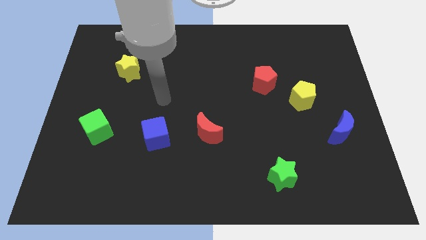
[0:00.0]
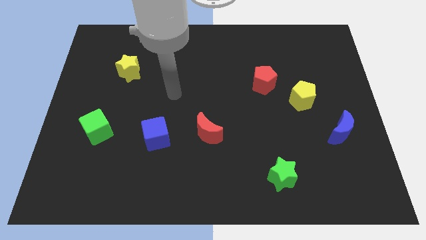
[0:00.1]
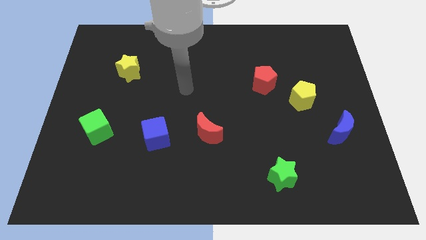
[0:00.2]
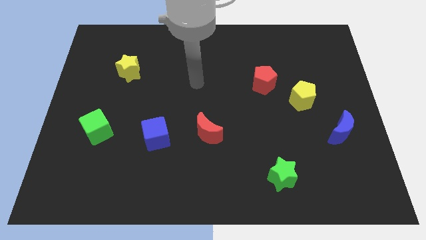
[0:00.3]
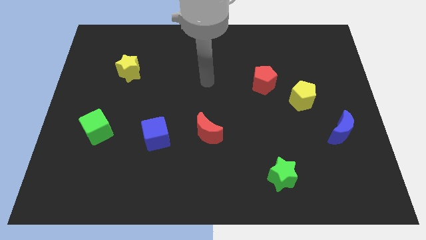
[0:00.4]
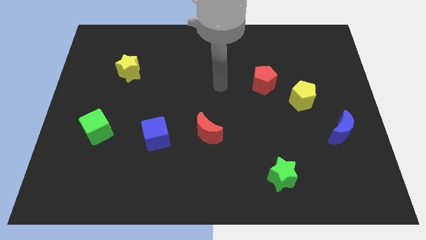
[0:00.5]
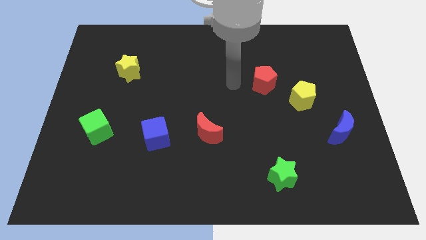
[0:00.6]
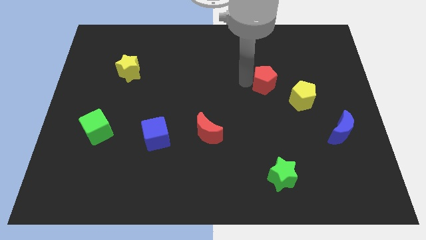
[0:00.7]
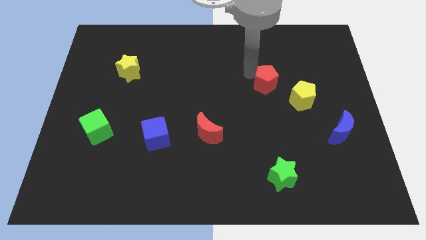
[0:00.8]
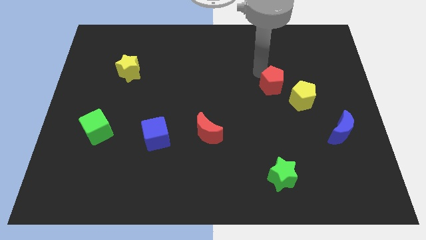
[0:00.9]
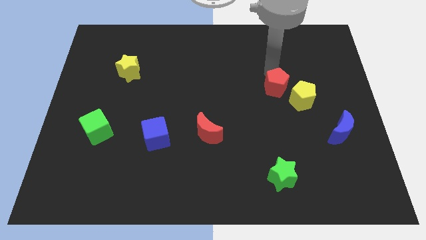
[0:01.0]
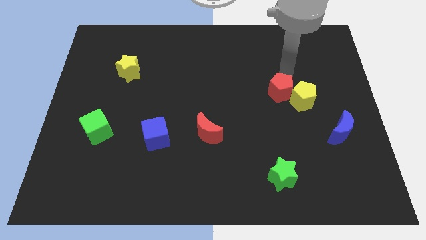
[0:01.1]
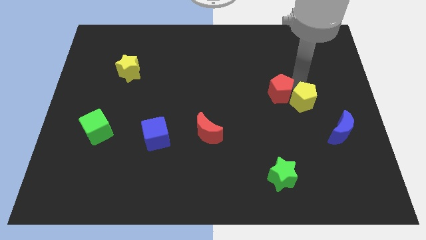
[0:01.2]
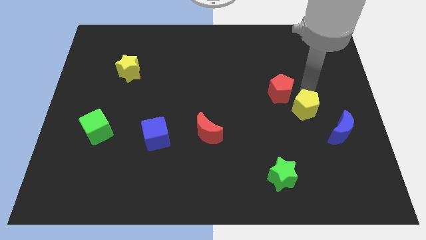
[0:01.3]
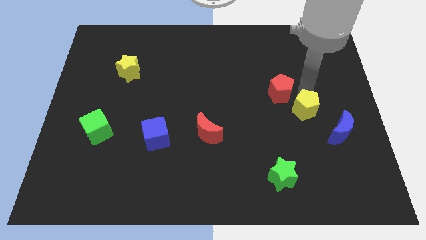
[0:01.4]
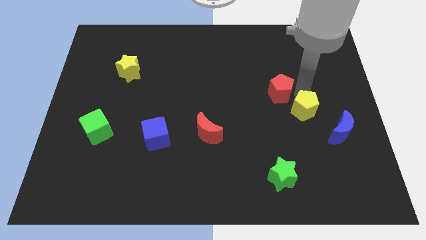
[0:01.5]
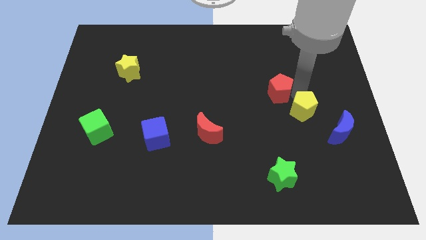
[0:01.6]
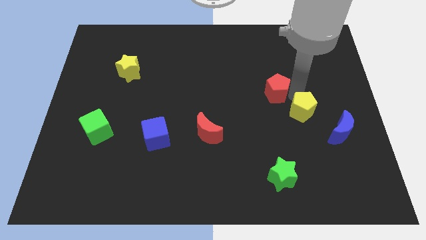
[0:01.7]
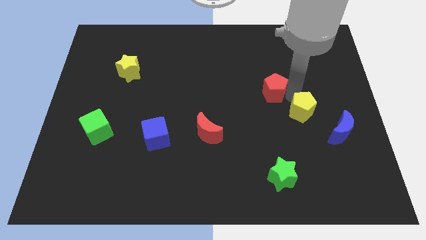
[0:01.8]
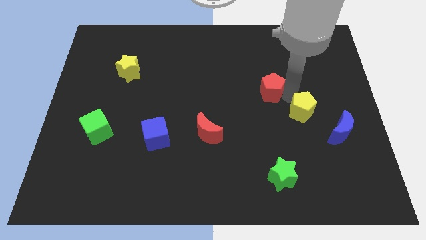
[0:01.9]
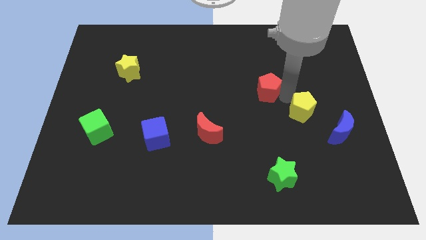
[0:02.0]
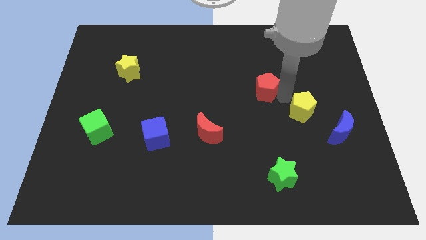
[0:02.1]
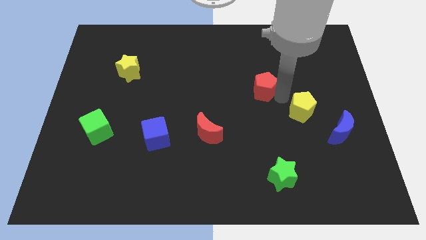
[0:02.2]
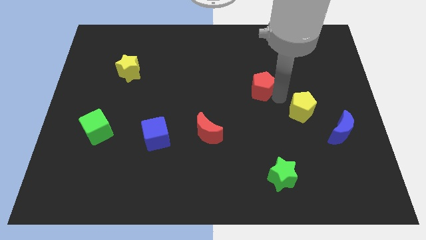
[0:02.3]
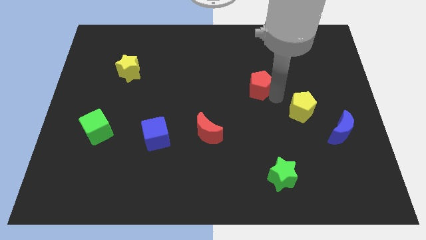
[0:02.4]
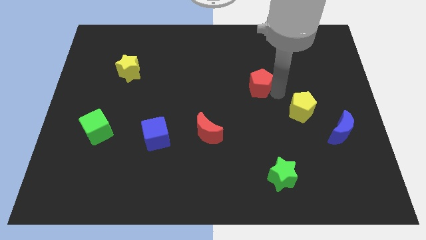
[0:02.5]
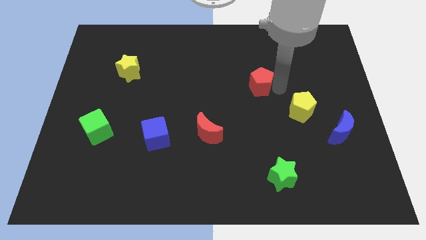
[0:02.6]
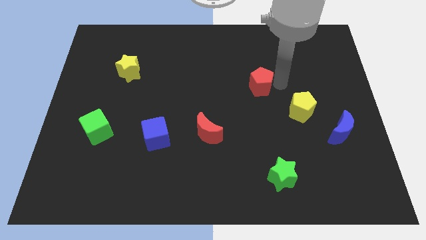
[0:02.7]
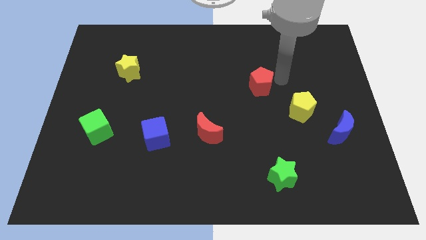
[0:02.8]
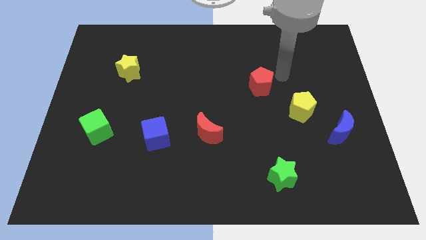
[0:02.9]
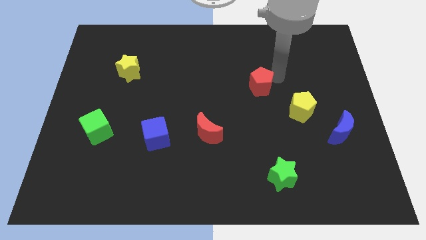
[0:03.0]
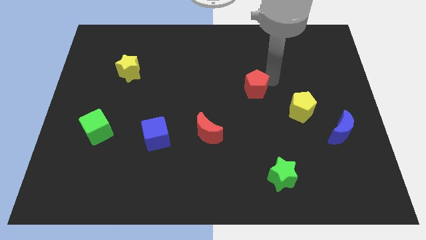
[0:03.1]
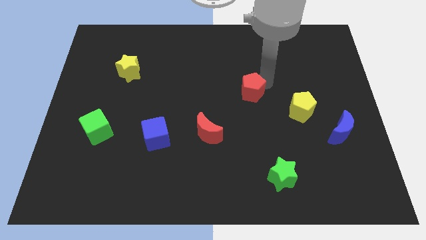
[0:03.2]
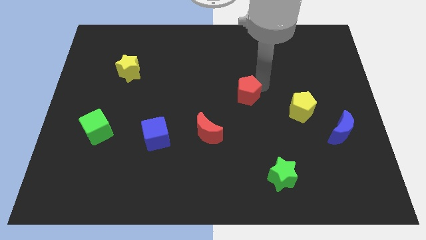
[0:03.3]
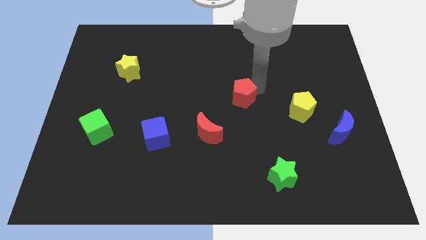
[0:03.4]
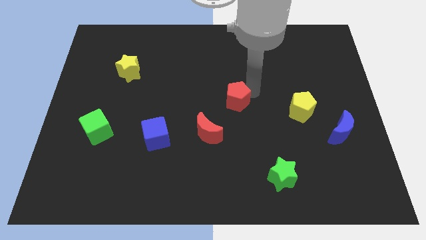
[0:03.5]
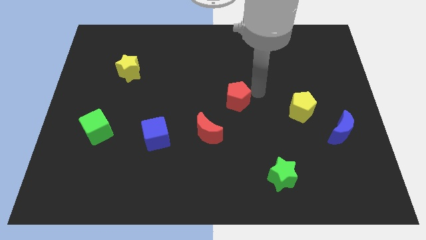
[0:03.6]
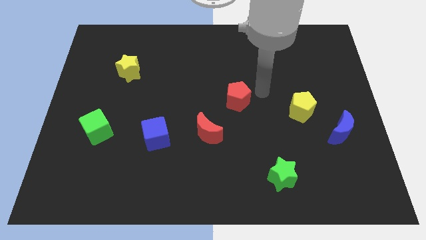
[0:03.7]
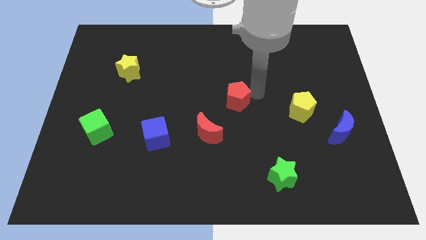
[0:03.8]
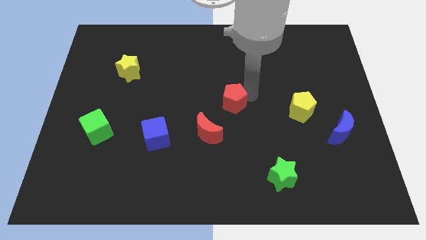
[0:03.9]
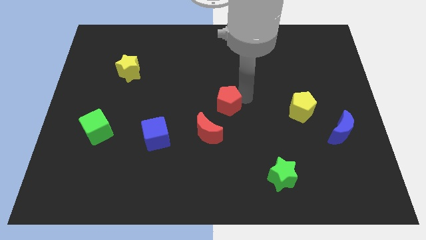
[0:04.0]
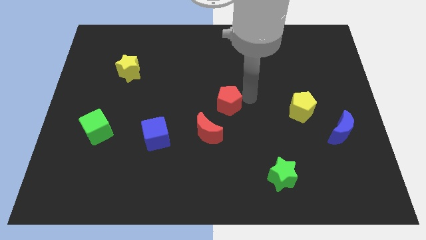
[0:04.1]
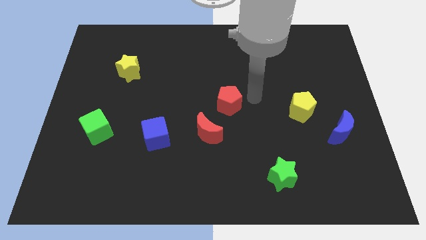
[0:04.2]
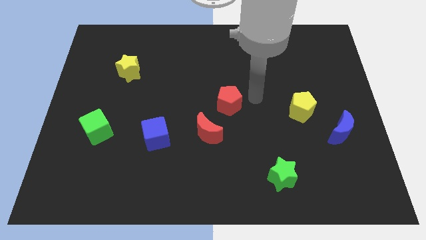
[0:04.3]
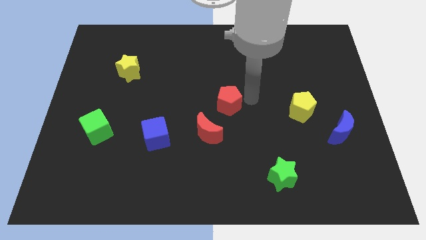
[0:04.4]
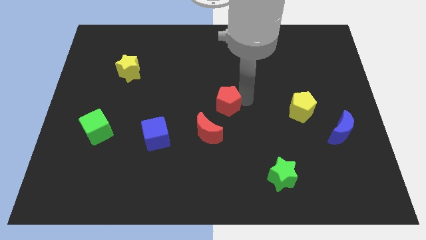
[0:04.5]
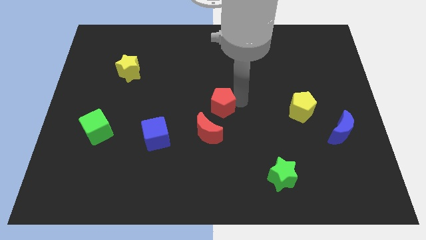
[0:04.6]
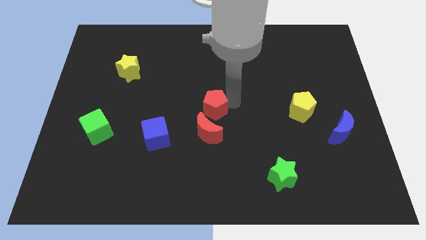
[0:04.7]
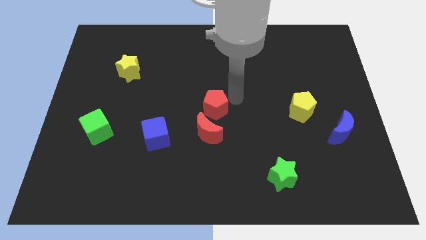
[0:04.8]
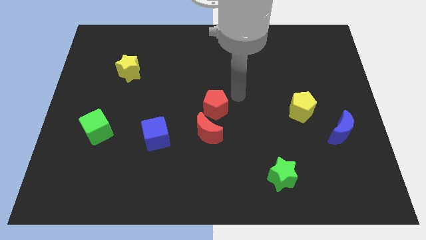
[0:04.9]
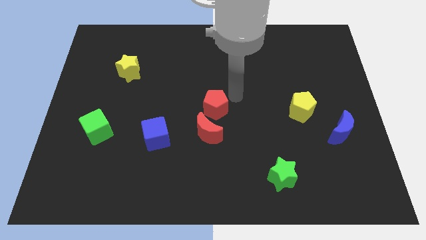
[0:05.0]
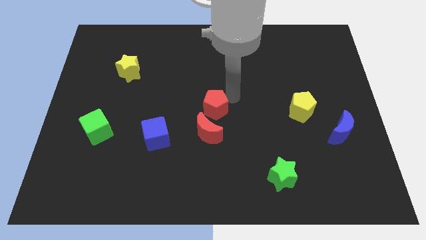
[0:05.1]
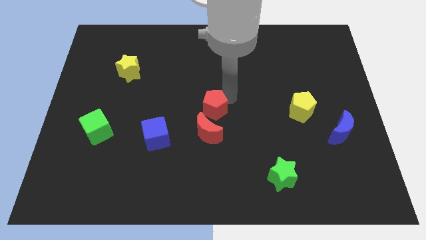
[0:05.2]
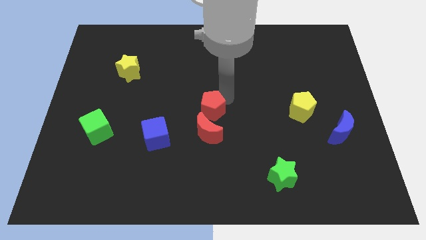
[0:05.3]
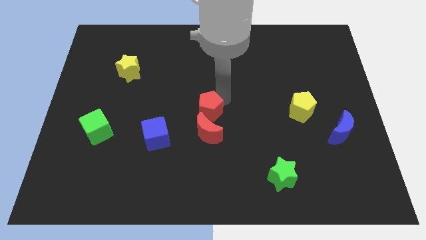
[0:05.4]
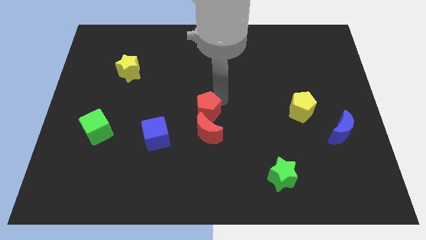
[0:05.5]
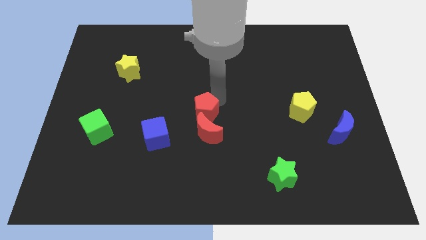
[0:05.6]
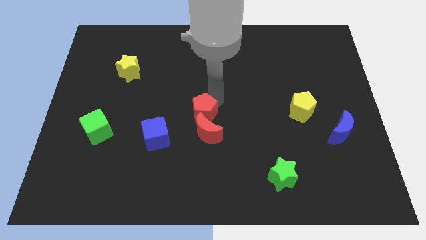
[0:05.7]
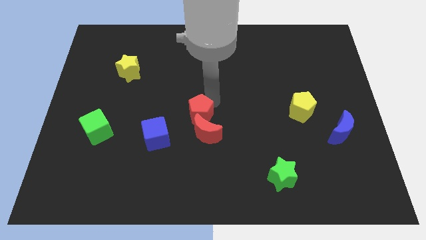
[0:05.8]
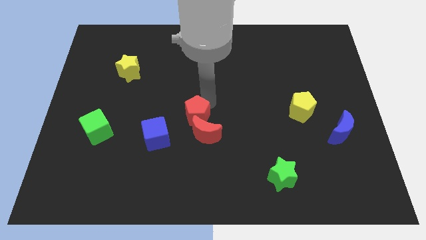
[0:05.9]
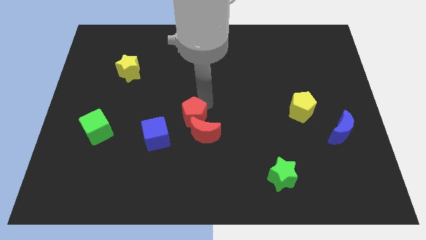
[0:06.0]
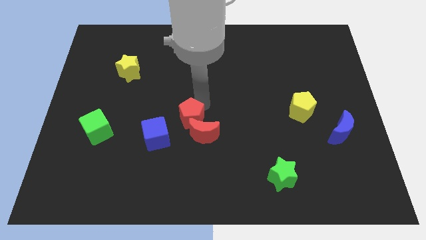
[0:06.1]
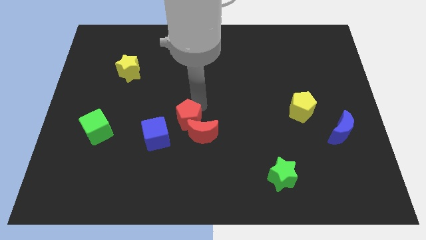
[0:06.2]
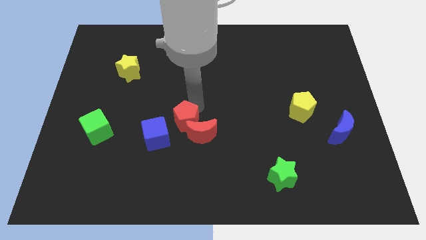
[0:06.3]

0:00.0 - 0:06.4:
slide the red pentagon downwards and then left

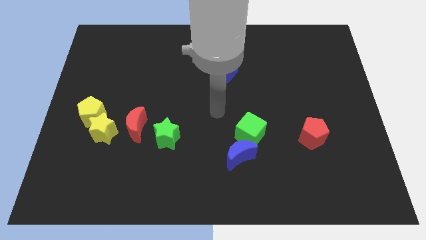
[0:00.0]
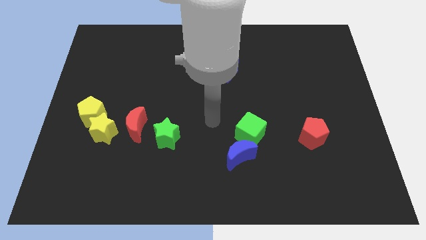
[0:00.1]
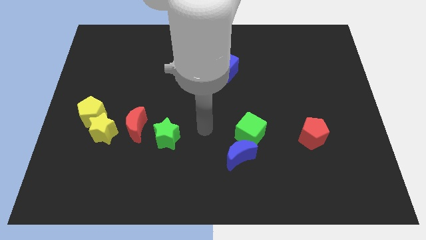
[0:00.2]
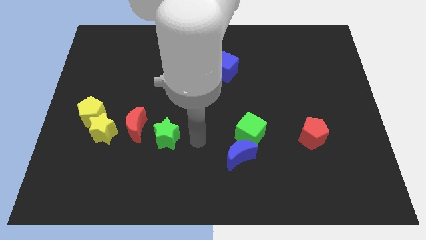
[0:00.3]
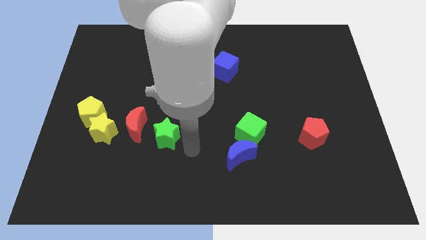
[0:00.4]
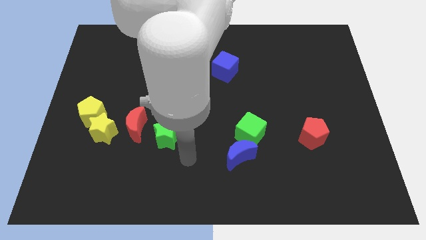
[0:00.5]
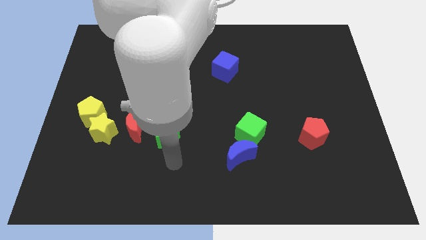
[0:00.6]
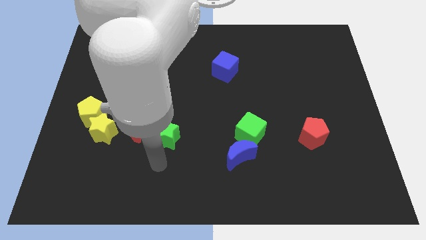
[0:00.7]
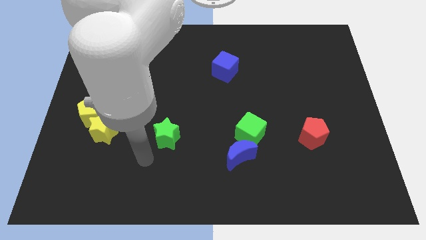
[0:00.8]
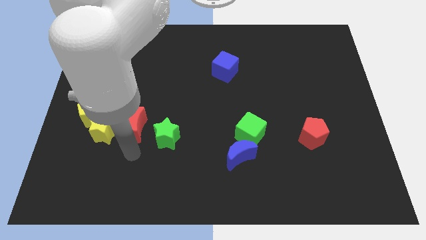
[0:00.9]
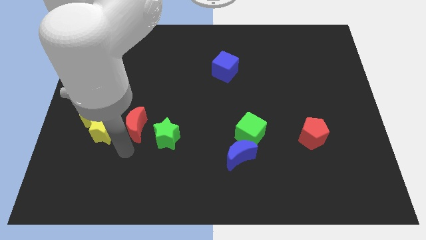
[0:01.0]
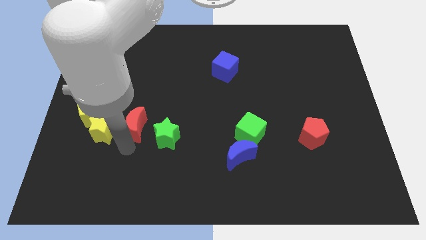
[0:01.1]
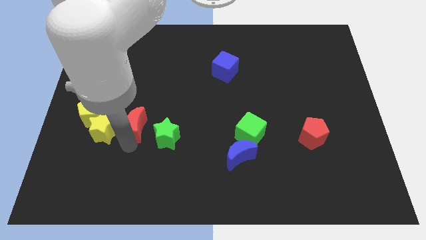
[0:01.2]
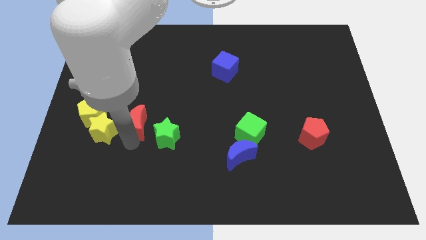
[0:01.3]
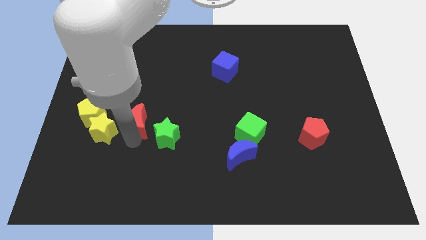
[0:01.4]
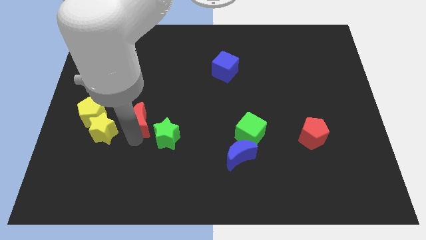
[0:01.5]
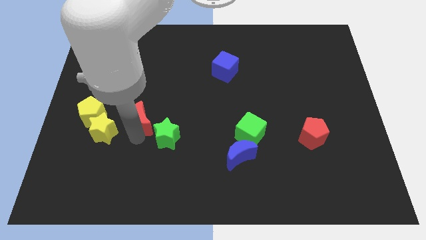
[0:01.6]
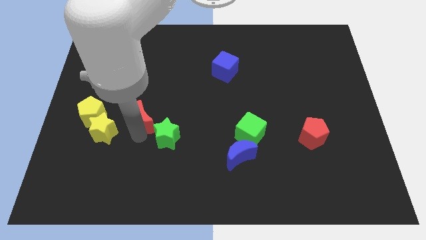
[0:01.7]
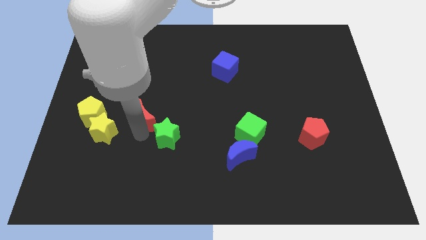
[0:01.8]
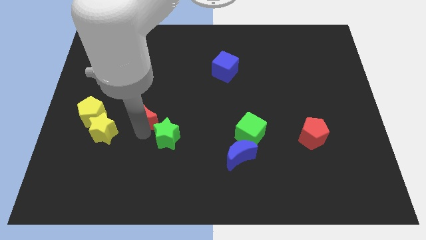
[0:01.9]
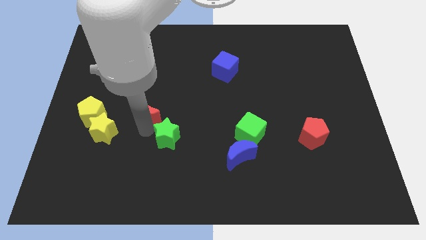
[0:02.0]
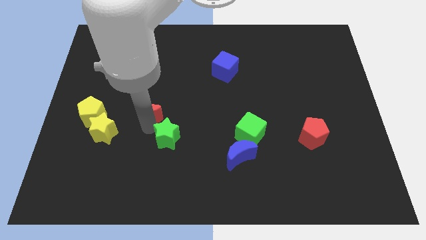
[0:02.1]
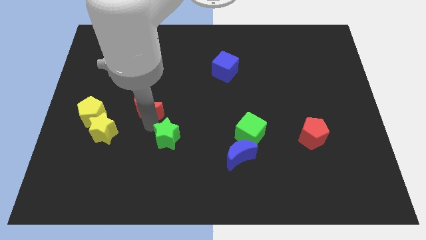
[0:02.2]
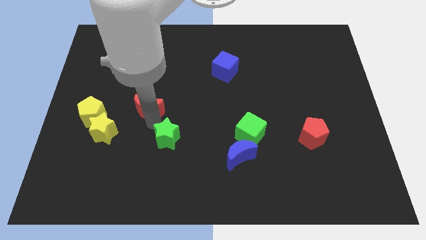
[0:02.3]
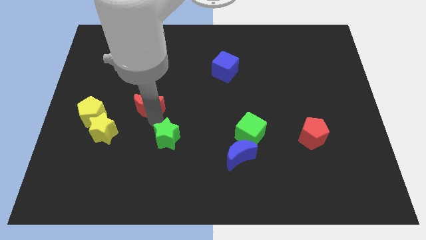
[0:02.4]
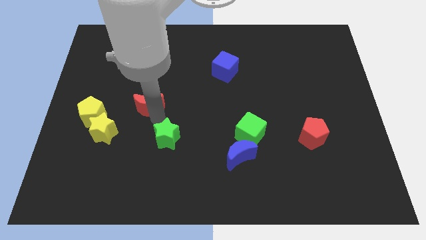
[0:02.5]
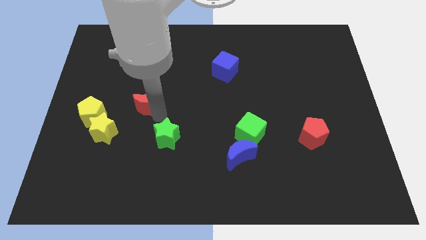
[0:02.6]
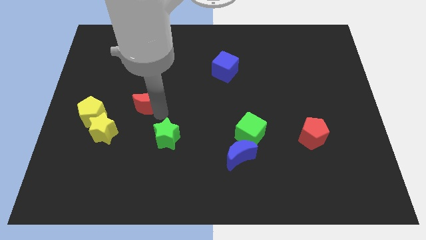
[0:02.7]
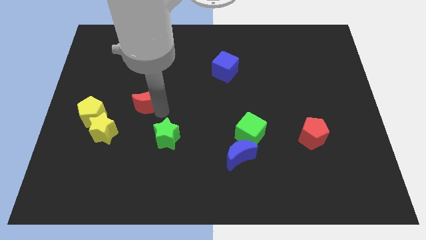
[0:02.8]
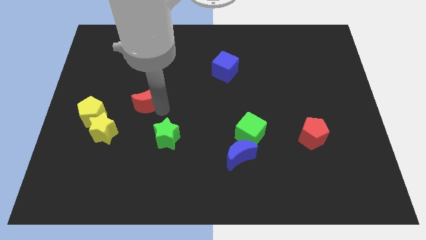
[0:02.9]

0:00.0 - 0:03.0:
push the red moon a little up
